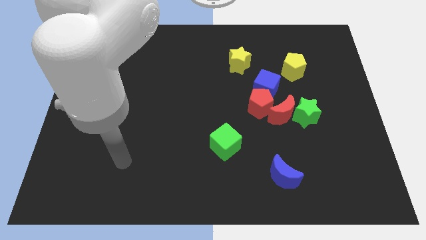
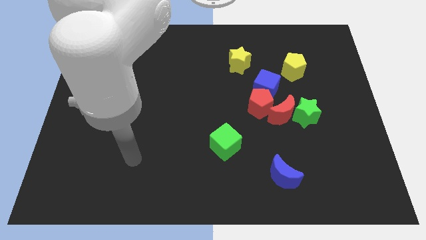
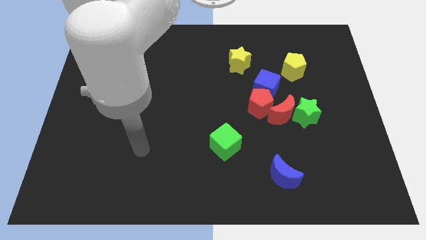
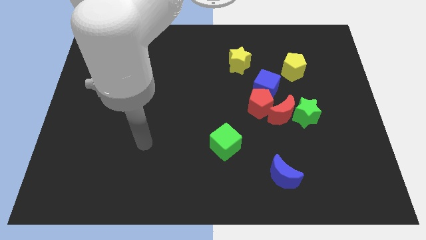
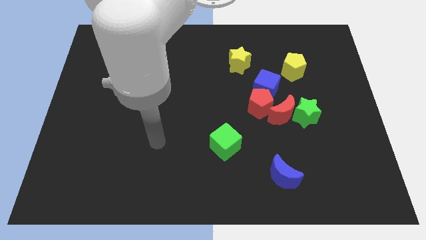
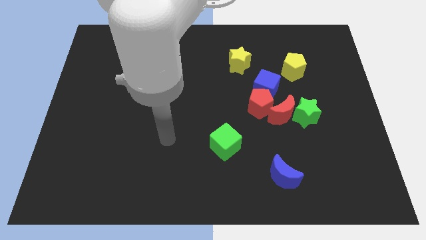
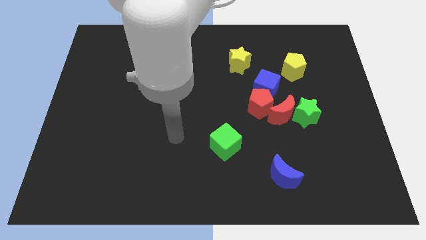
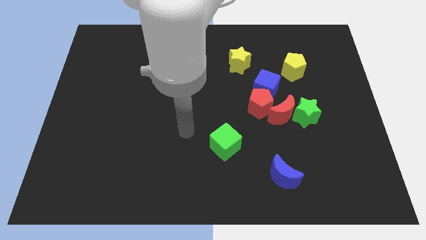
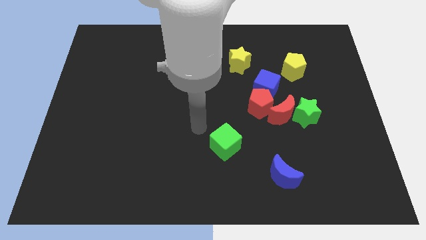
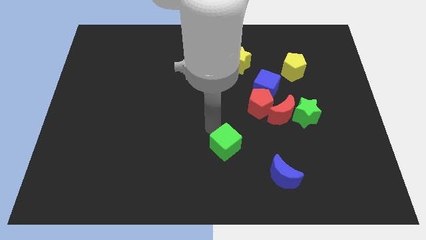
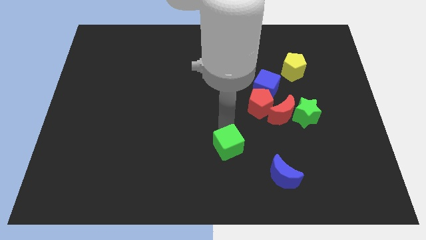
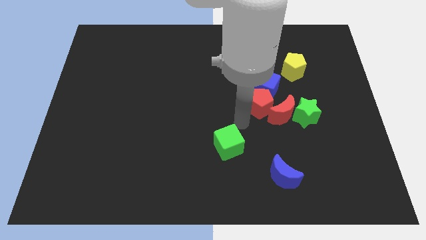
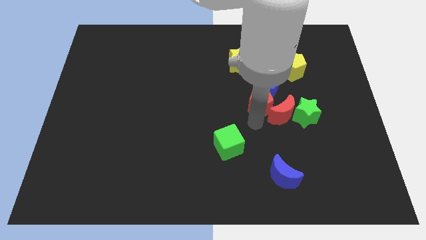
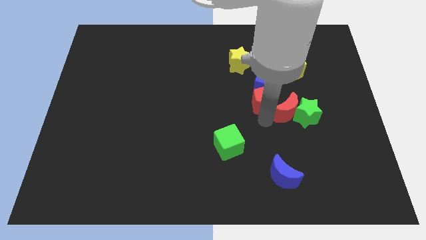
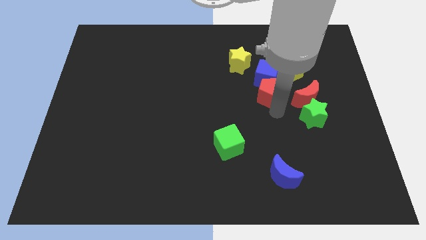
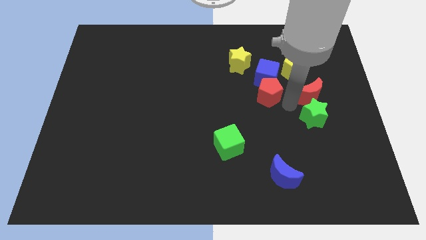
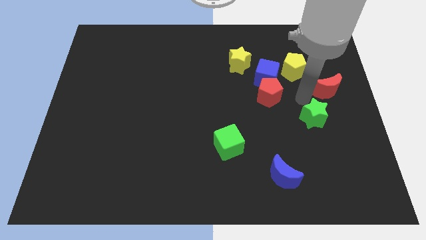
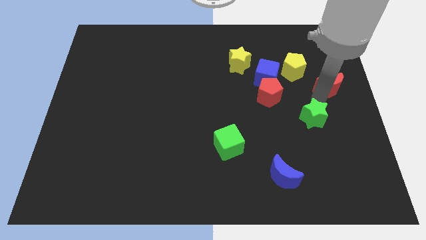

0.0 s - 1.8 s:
separate the green star from the red moon

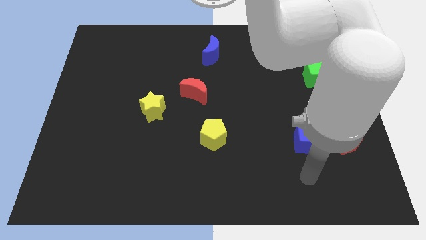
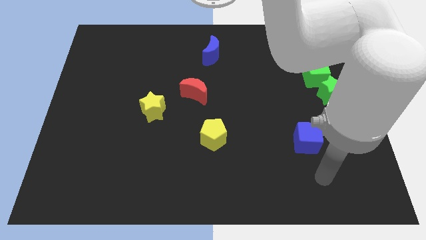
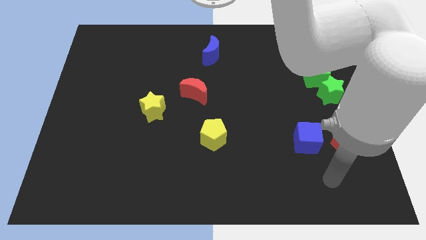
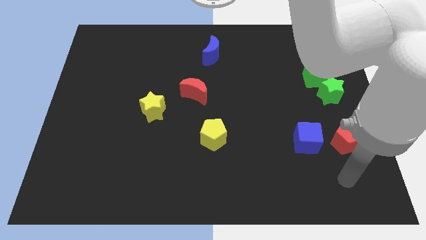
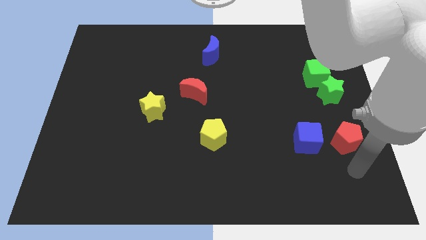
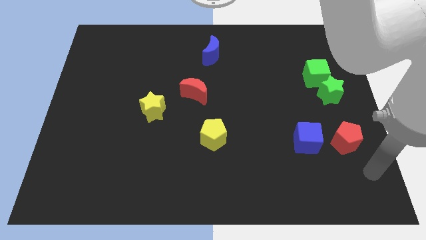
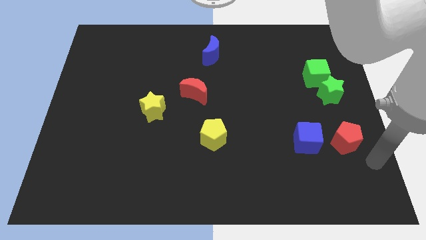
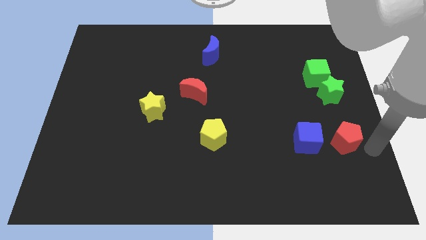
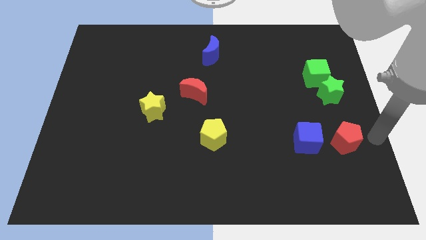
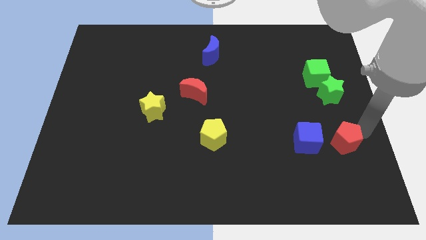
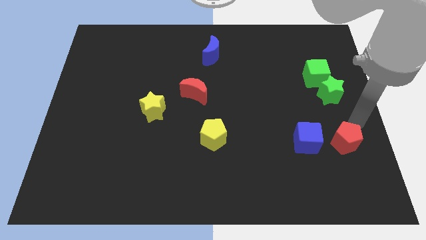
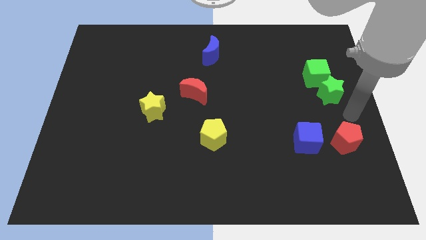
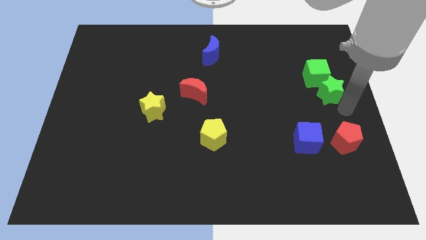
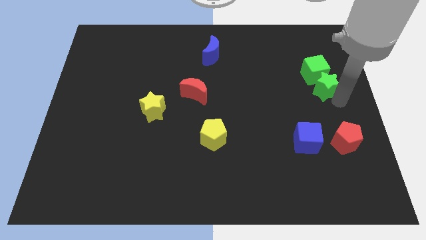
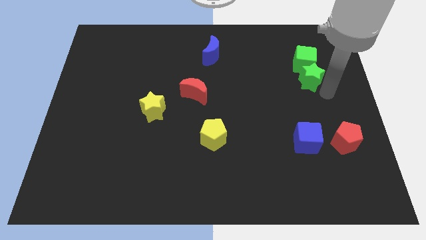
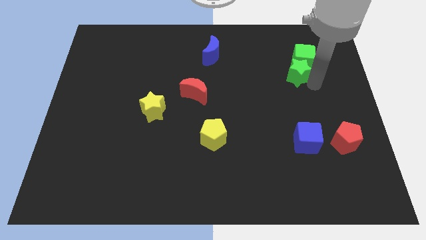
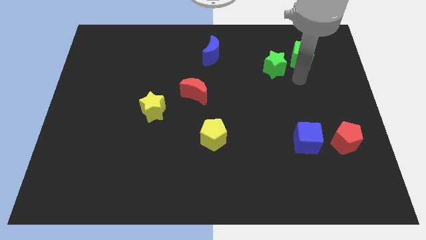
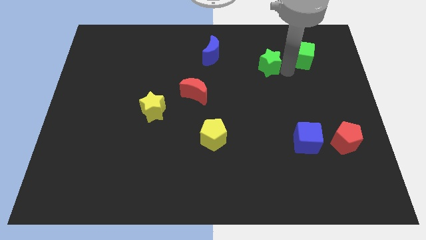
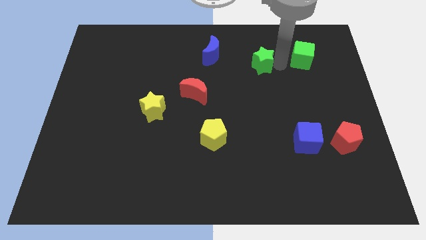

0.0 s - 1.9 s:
move the green cube away from the green star

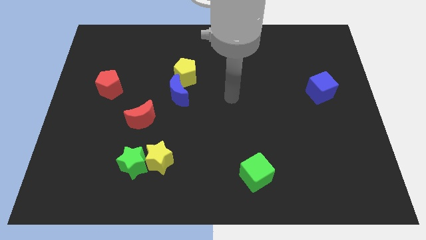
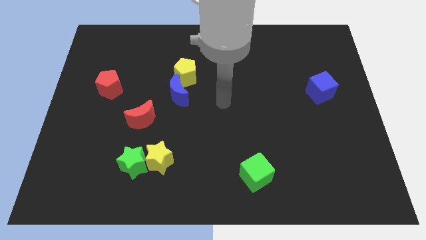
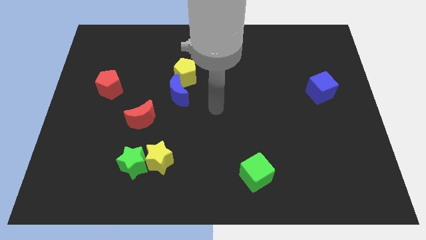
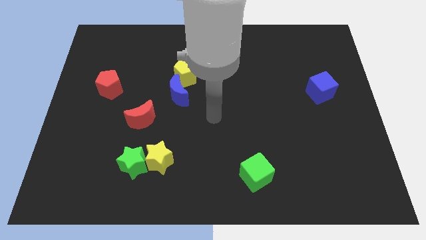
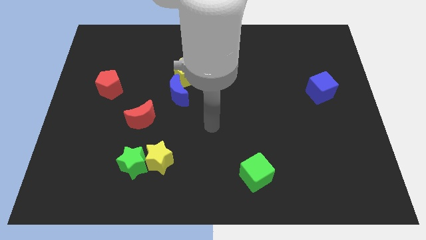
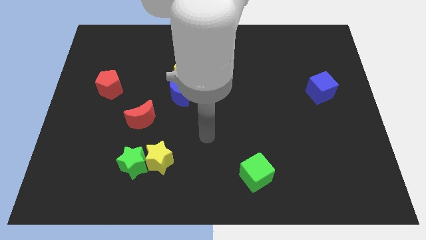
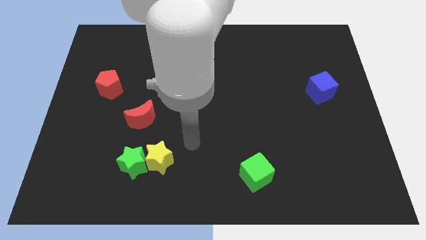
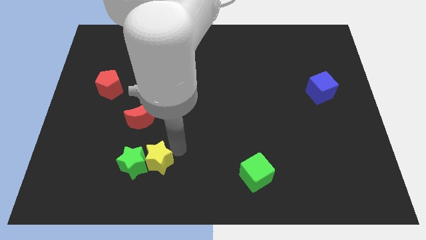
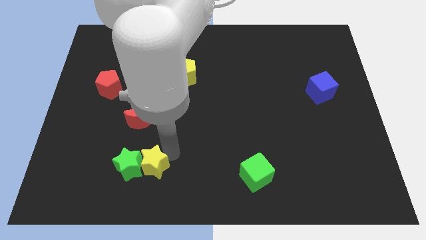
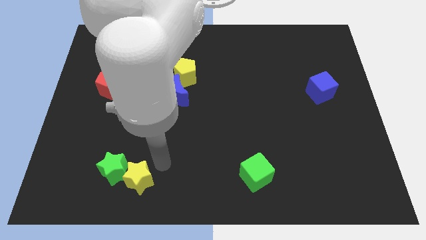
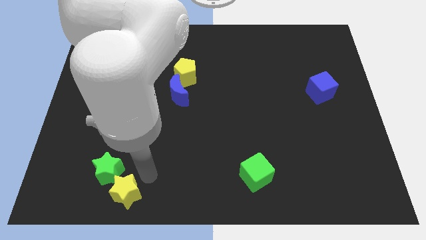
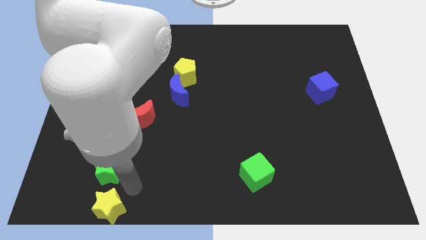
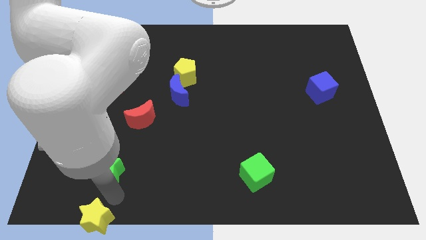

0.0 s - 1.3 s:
pull the green star apart from the yellow star

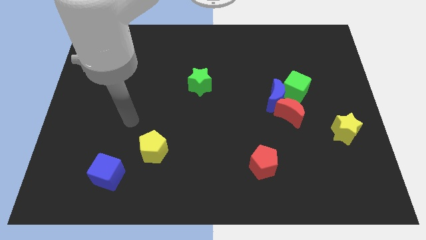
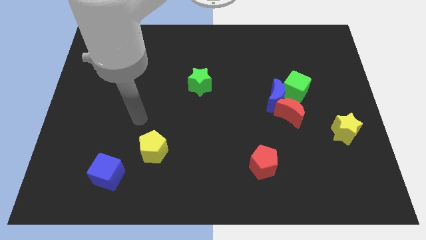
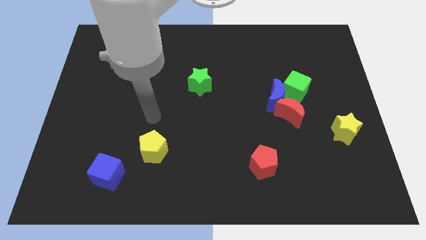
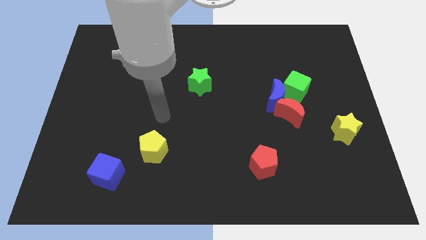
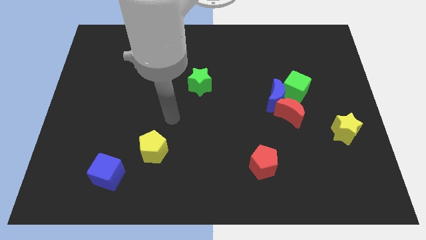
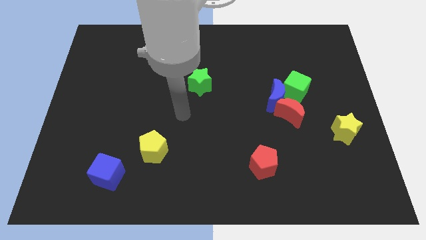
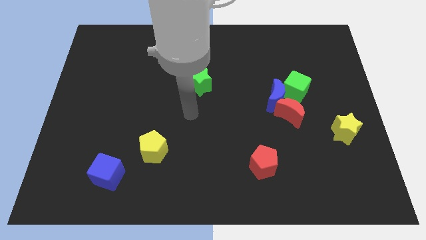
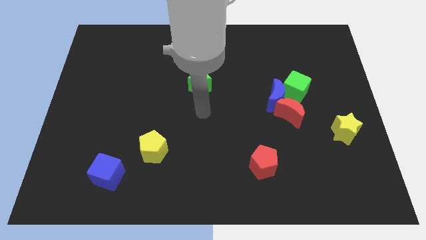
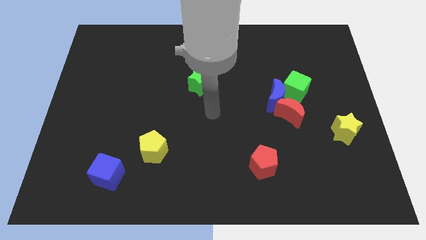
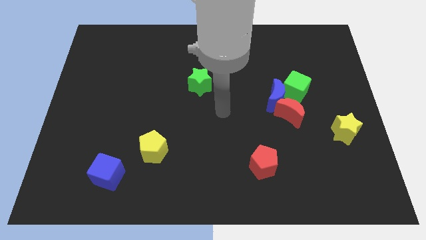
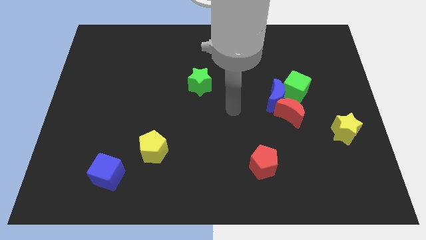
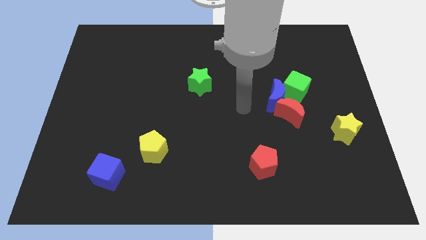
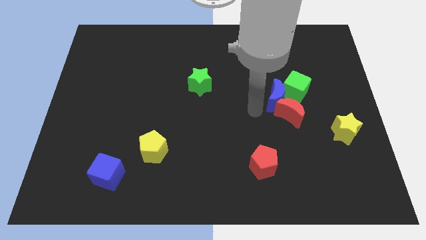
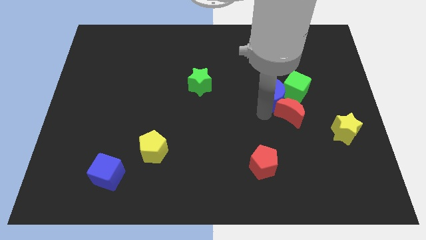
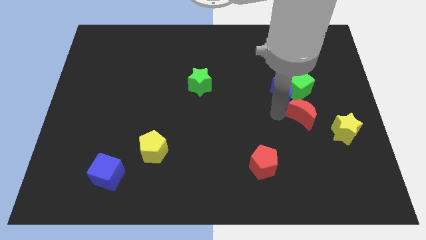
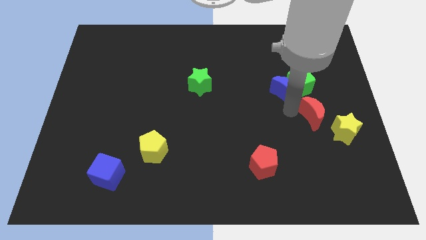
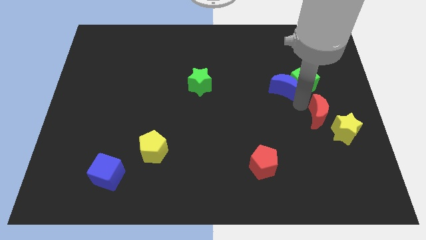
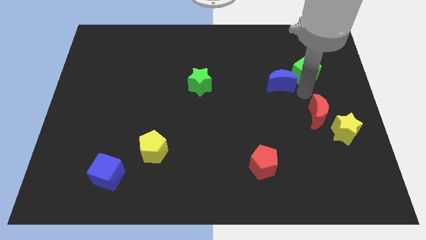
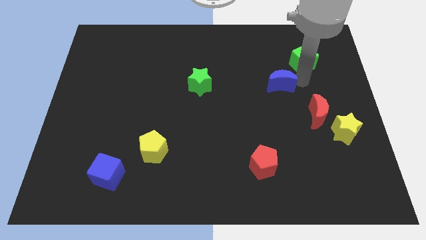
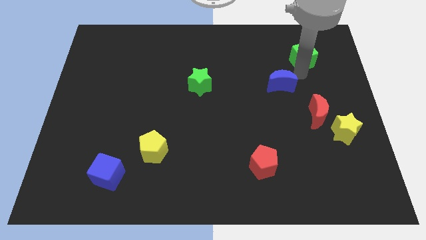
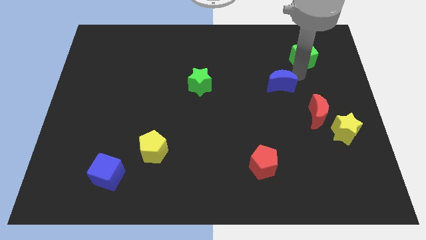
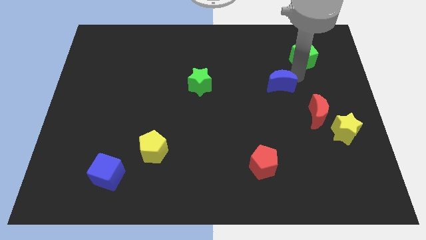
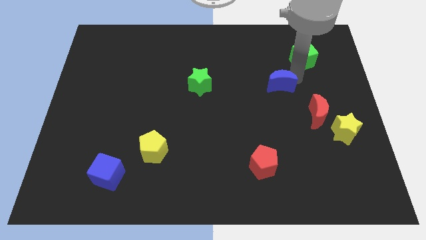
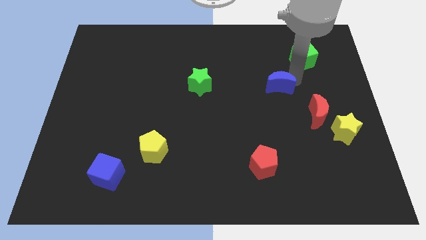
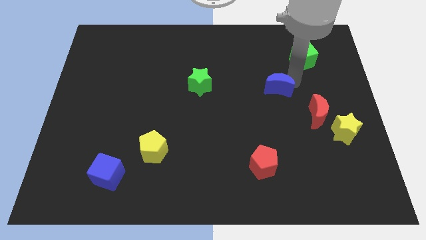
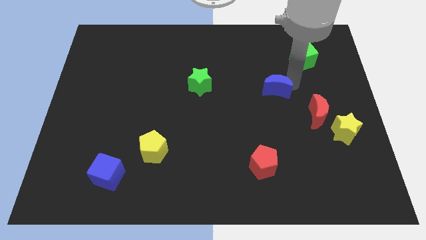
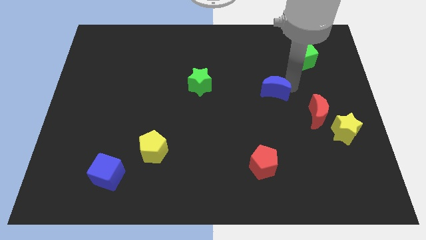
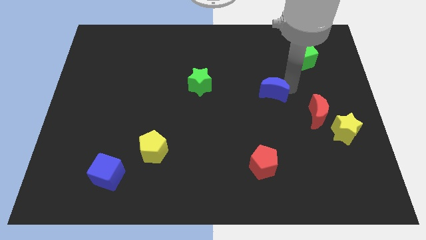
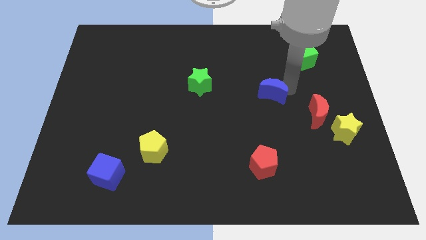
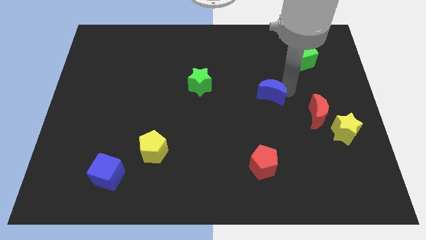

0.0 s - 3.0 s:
move the blue moon away from the red moon and green cube

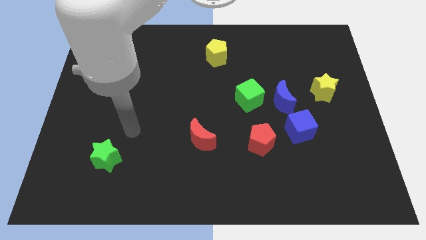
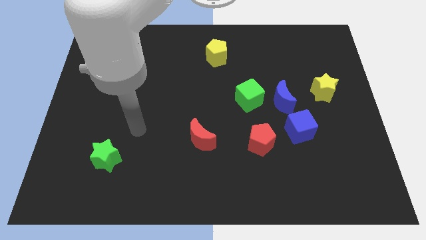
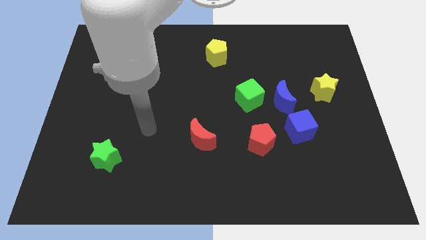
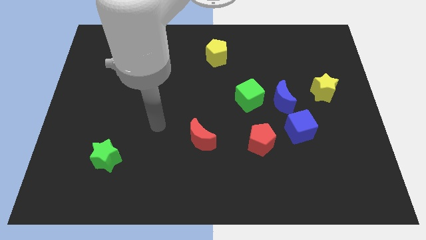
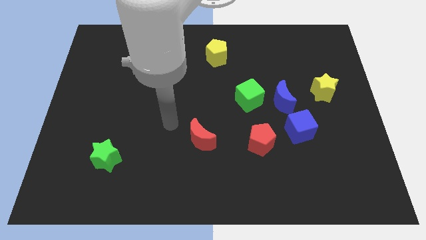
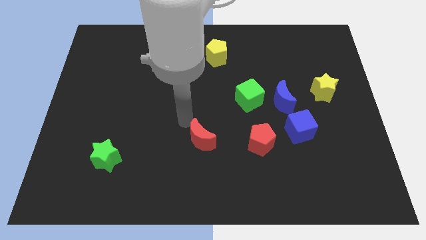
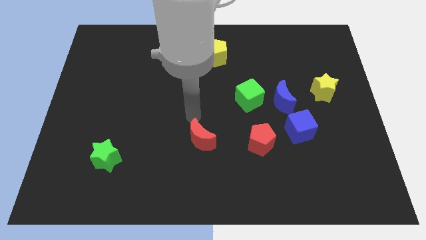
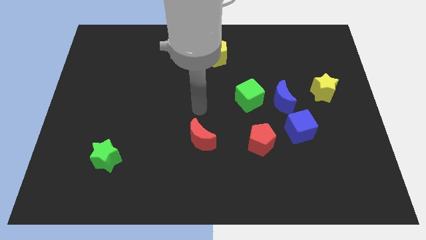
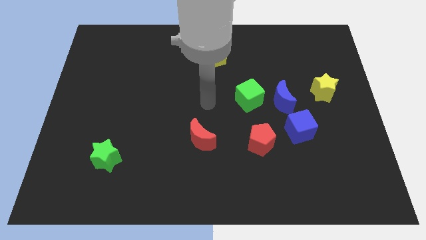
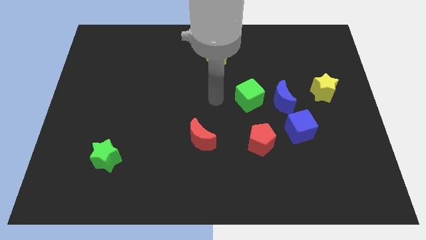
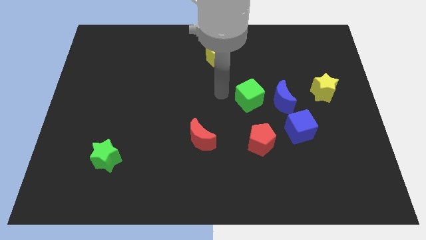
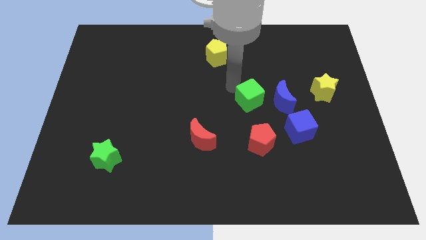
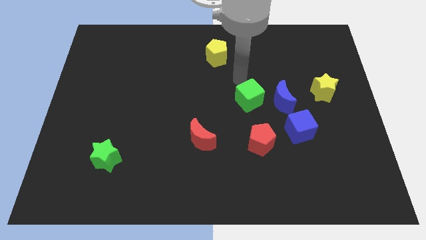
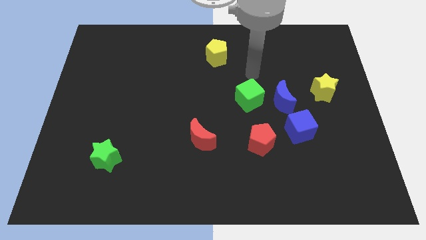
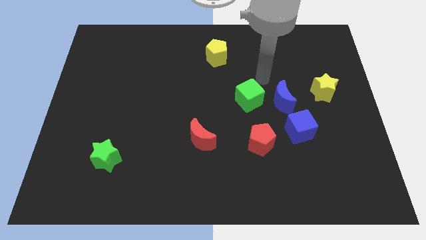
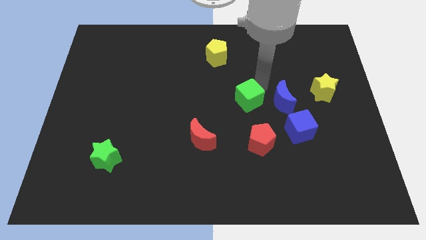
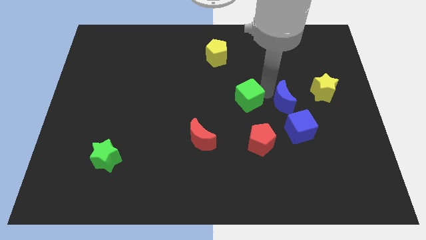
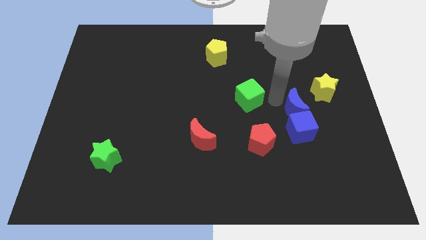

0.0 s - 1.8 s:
pull the green cube apart from the blue moon
